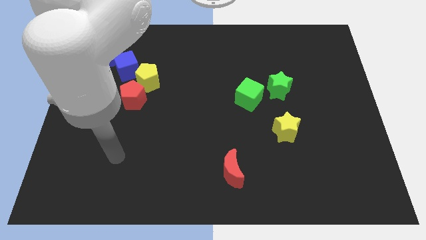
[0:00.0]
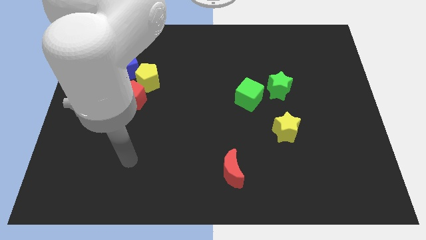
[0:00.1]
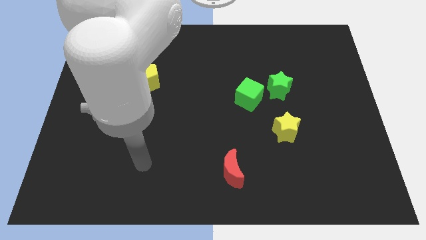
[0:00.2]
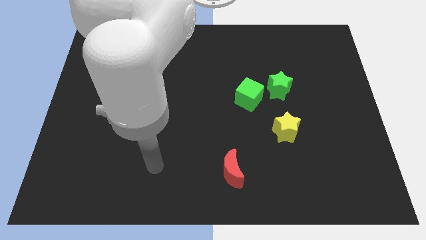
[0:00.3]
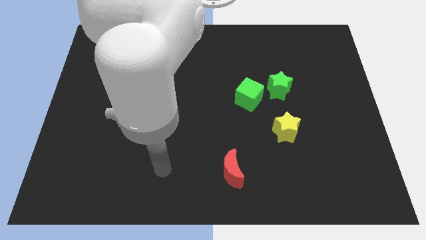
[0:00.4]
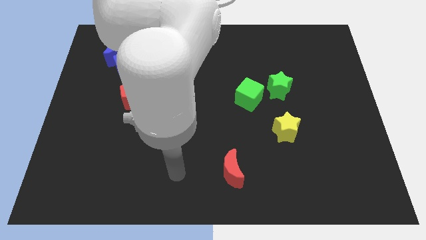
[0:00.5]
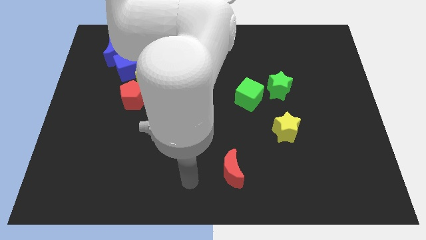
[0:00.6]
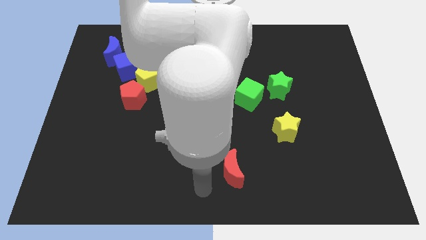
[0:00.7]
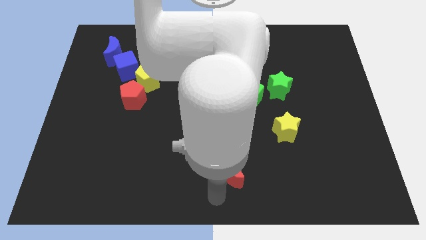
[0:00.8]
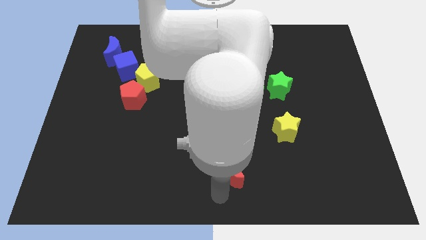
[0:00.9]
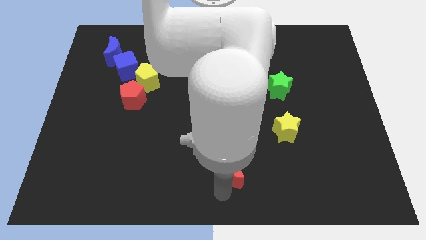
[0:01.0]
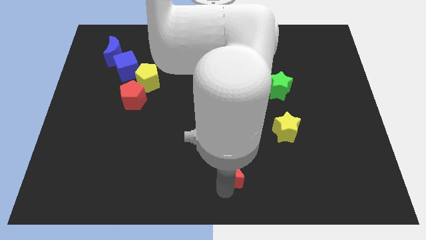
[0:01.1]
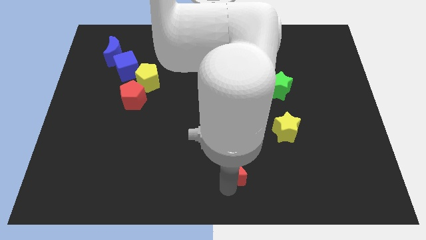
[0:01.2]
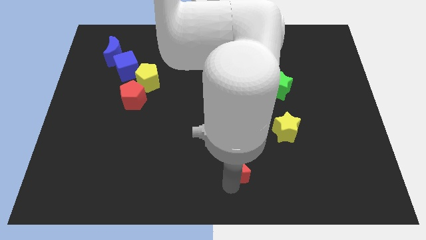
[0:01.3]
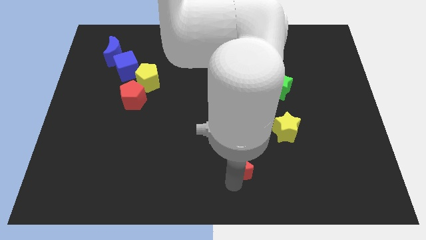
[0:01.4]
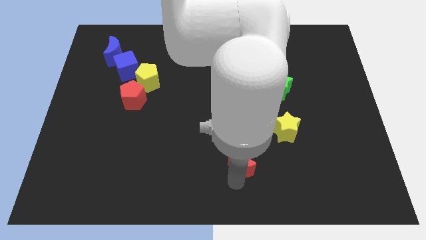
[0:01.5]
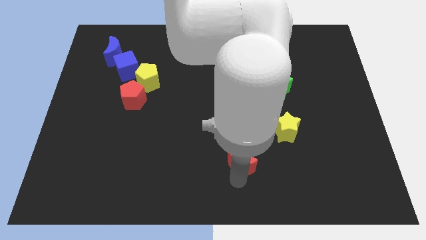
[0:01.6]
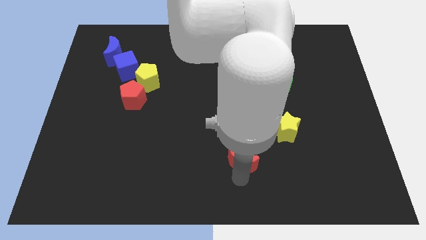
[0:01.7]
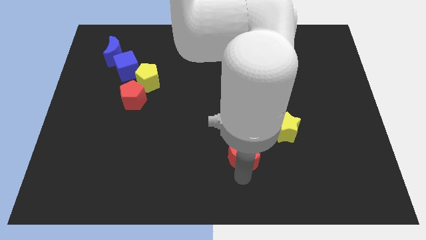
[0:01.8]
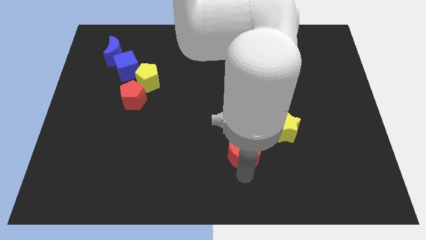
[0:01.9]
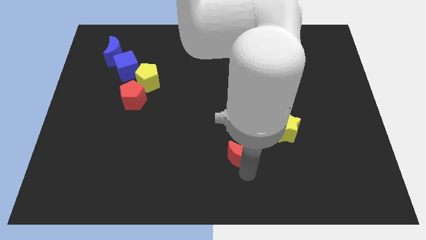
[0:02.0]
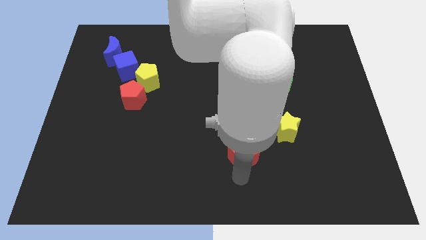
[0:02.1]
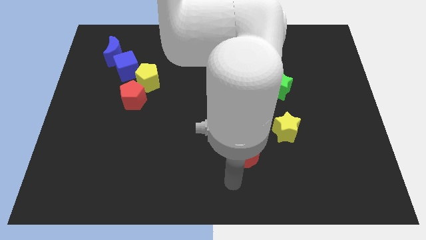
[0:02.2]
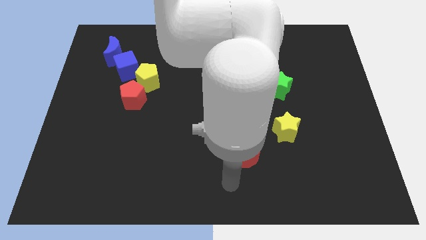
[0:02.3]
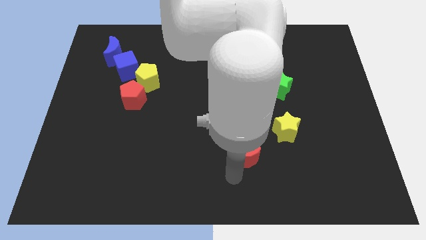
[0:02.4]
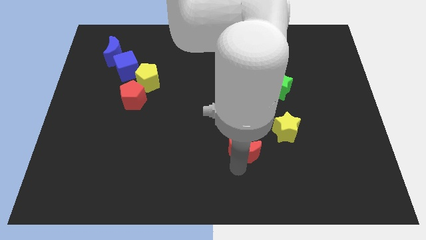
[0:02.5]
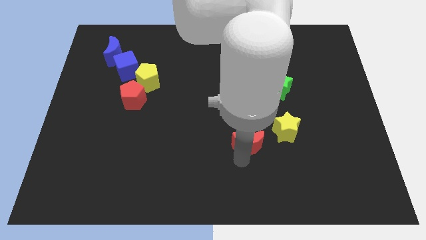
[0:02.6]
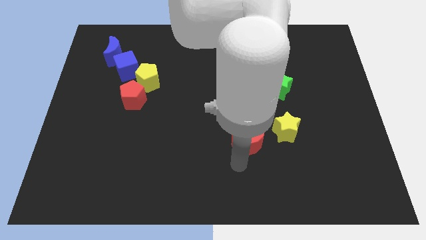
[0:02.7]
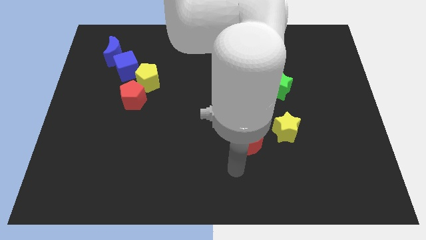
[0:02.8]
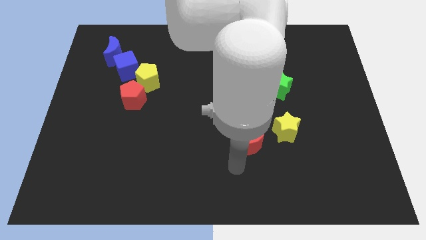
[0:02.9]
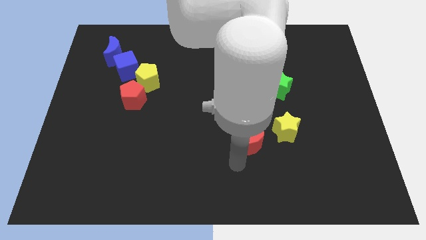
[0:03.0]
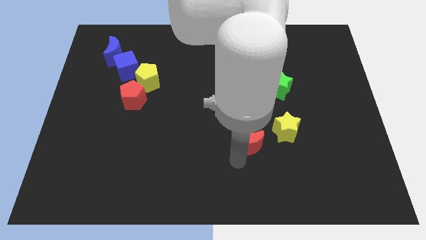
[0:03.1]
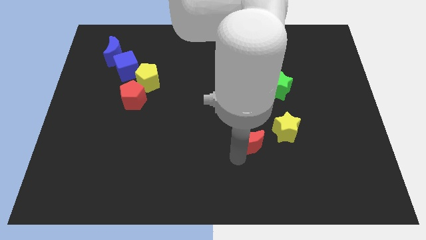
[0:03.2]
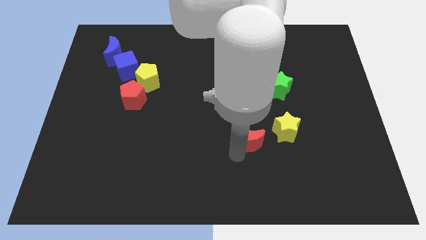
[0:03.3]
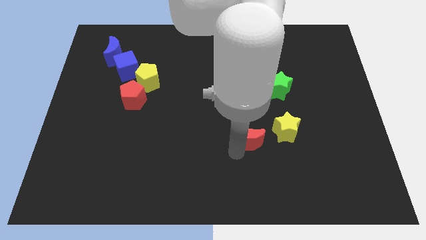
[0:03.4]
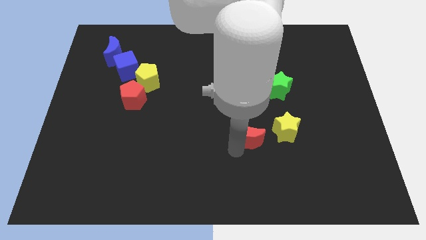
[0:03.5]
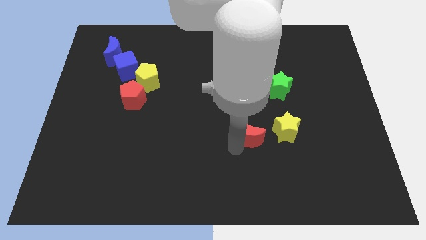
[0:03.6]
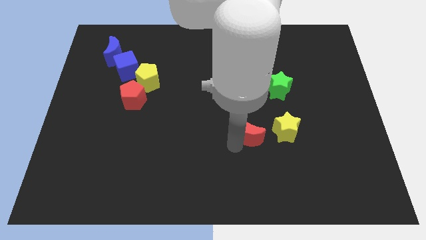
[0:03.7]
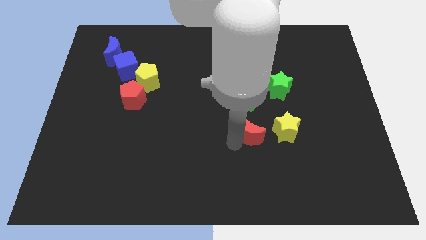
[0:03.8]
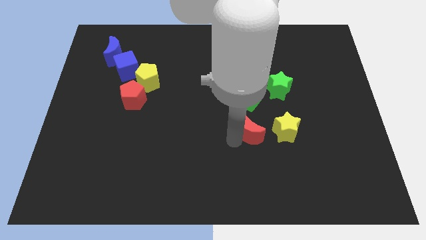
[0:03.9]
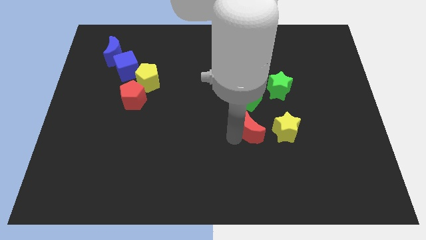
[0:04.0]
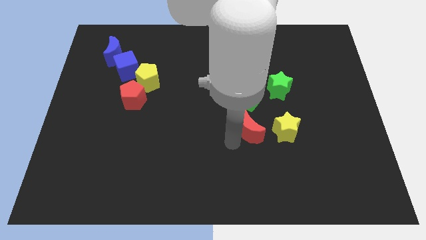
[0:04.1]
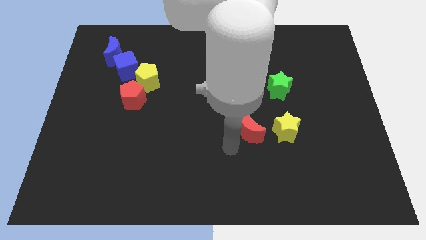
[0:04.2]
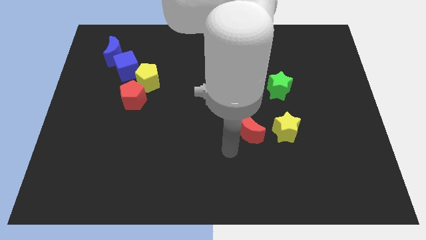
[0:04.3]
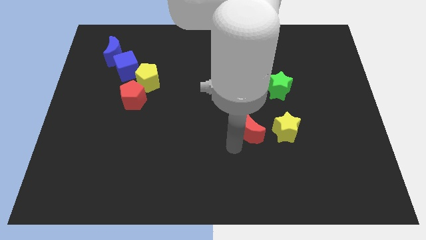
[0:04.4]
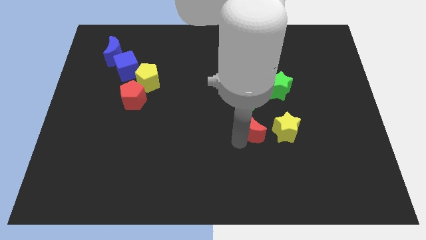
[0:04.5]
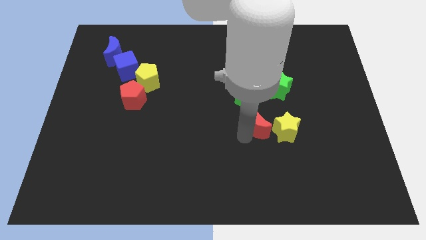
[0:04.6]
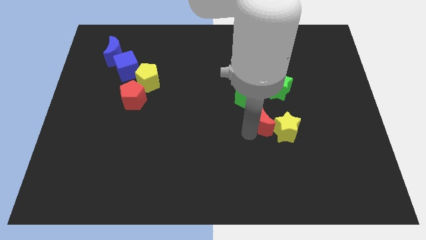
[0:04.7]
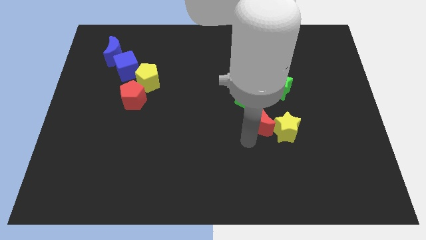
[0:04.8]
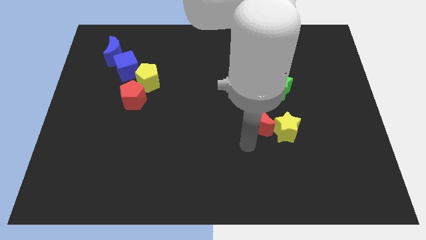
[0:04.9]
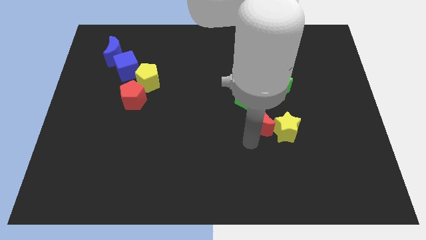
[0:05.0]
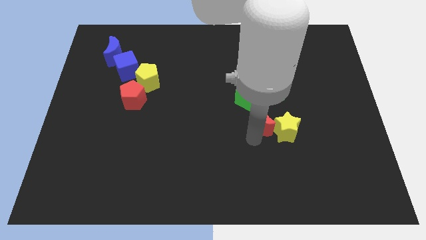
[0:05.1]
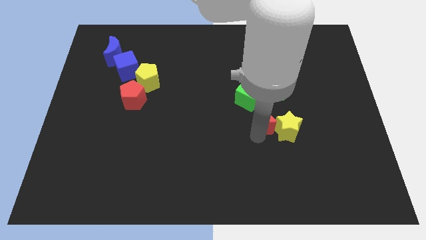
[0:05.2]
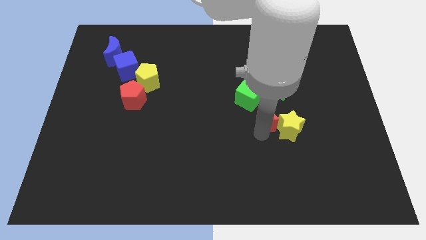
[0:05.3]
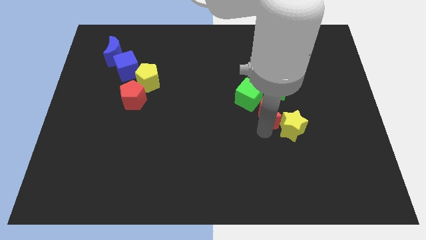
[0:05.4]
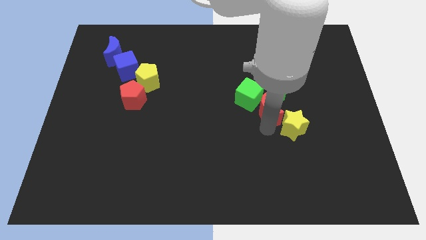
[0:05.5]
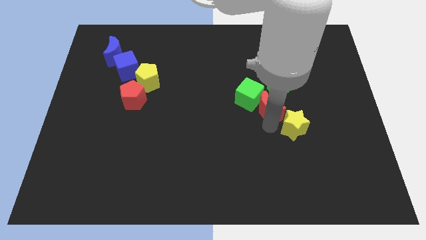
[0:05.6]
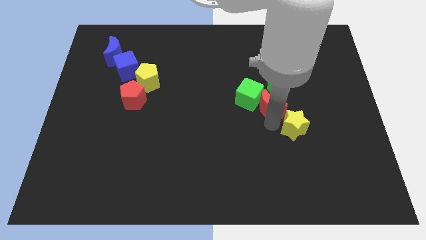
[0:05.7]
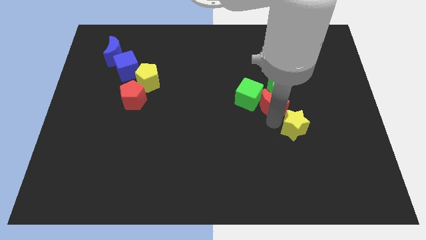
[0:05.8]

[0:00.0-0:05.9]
put the red moon to the green star

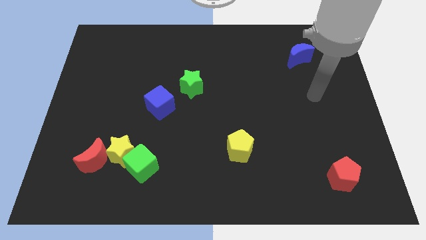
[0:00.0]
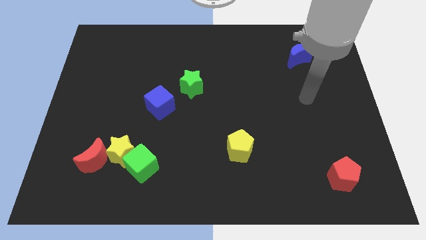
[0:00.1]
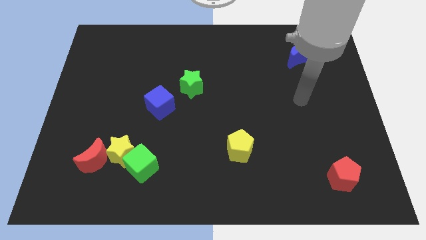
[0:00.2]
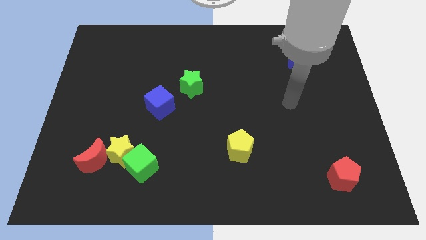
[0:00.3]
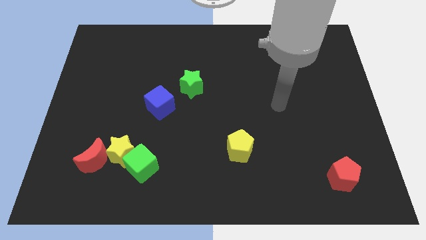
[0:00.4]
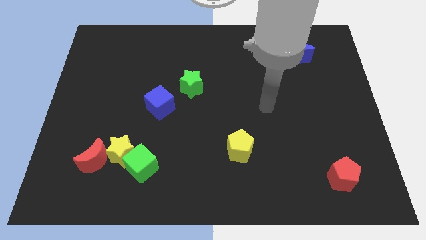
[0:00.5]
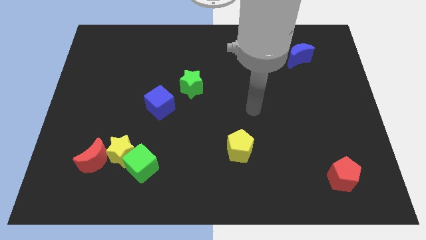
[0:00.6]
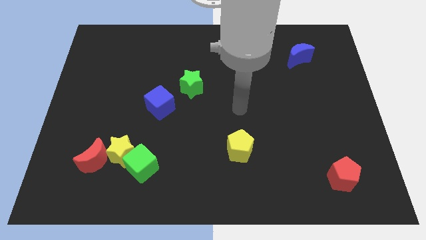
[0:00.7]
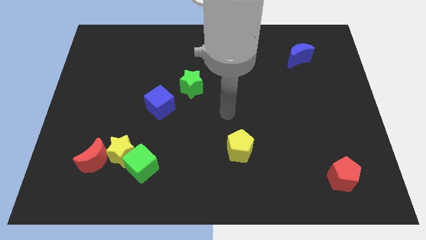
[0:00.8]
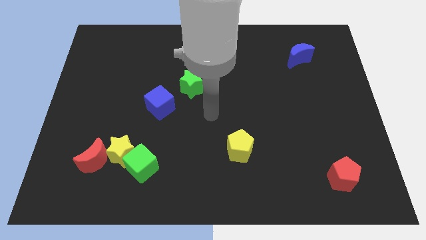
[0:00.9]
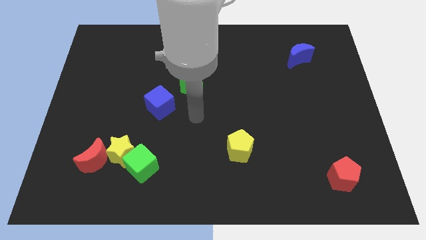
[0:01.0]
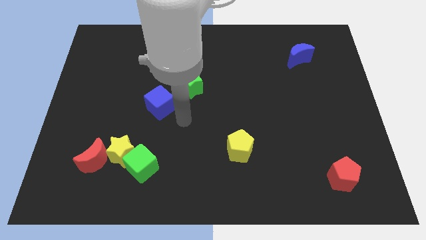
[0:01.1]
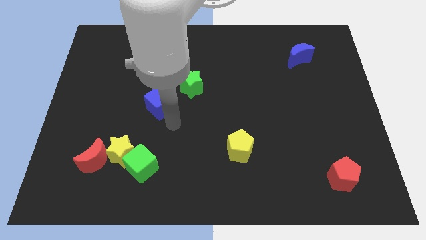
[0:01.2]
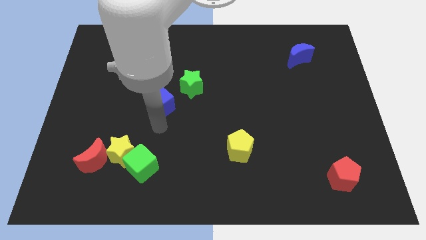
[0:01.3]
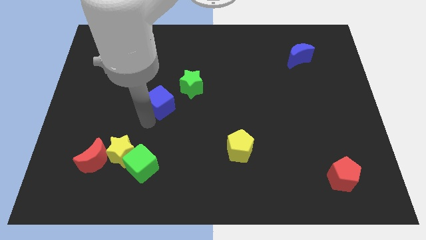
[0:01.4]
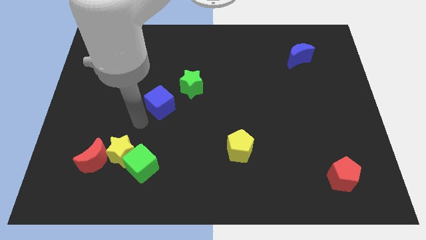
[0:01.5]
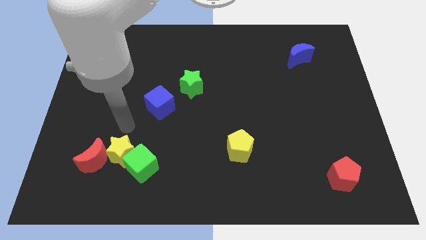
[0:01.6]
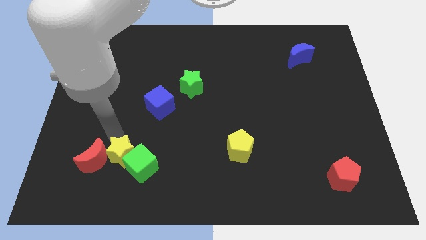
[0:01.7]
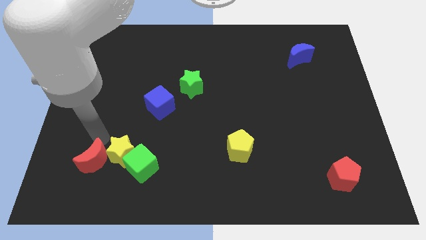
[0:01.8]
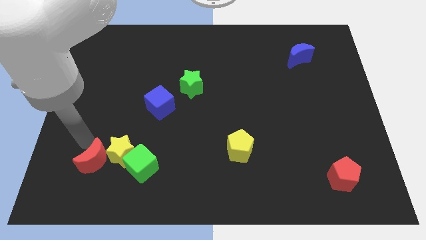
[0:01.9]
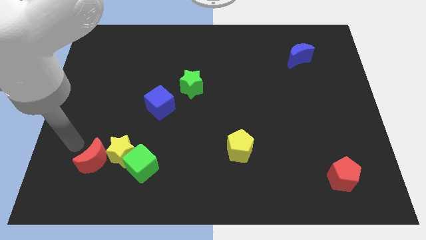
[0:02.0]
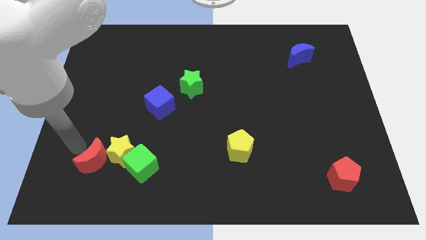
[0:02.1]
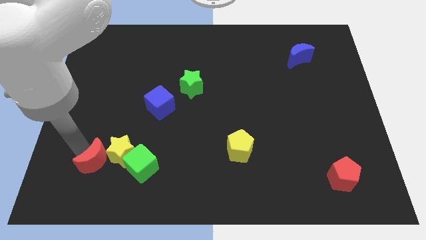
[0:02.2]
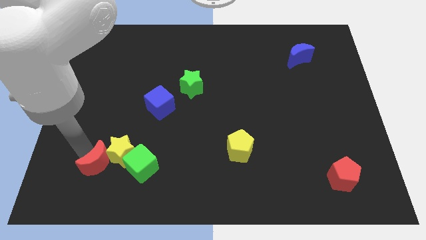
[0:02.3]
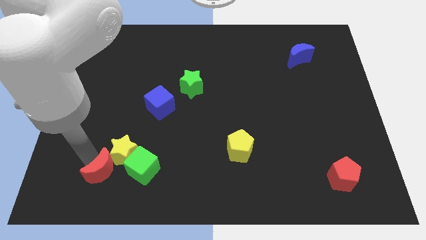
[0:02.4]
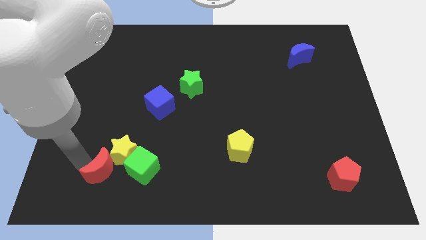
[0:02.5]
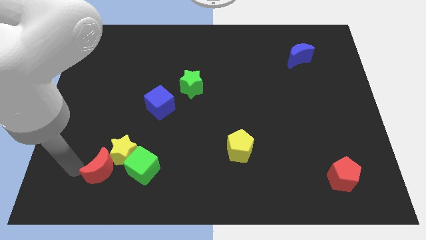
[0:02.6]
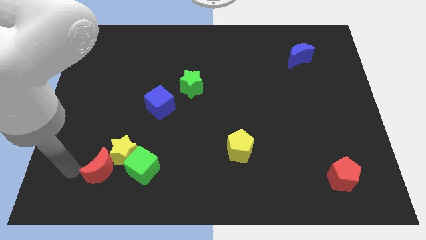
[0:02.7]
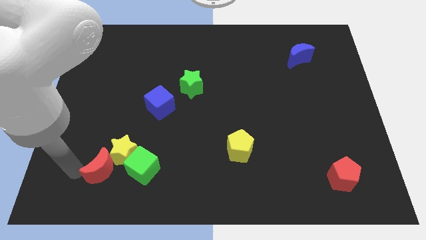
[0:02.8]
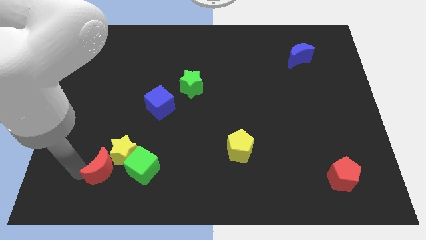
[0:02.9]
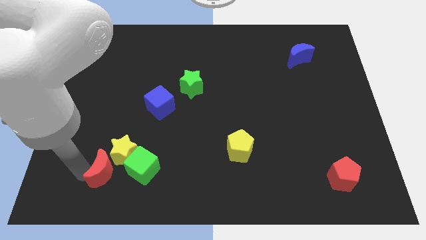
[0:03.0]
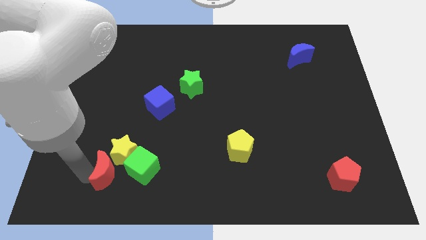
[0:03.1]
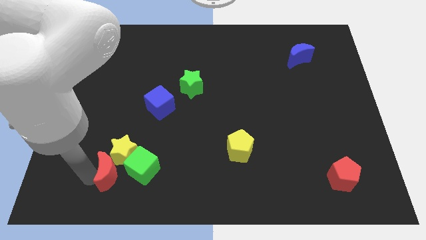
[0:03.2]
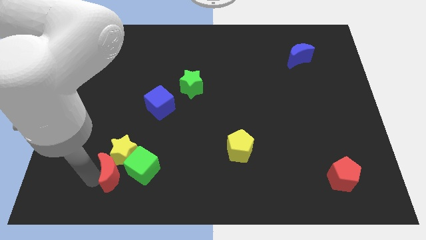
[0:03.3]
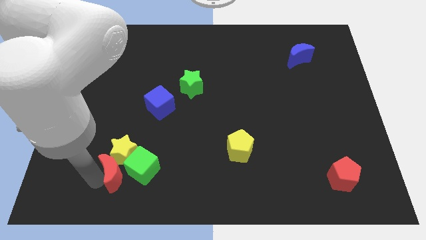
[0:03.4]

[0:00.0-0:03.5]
put the red moon to the green cube
